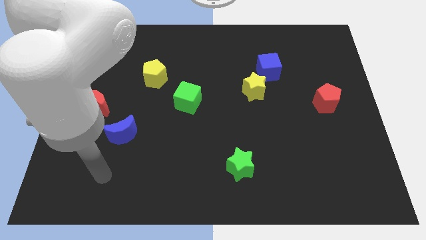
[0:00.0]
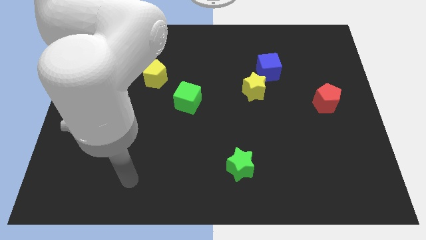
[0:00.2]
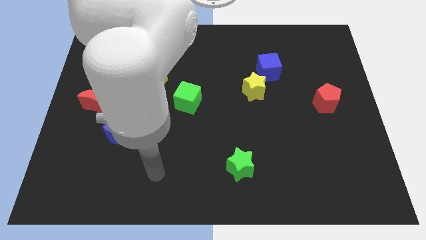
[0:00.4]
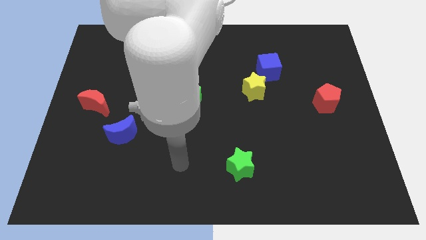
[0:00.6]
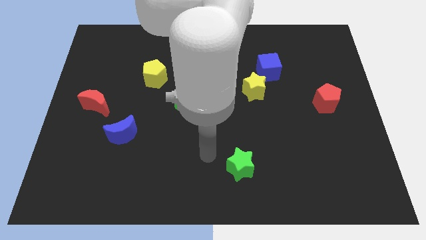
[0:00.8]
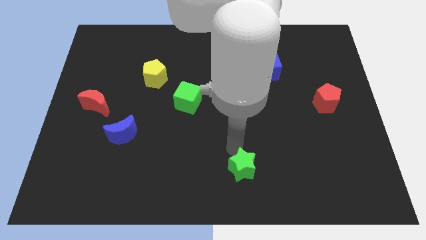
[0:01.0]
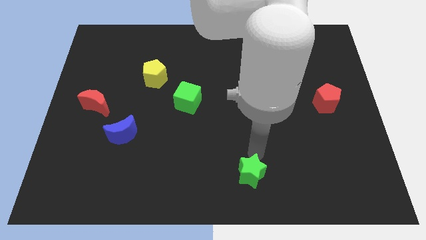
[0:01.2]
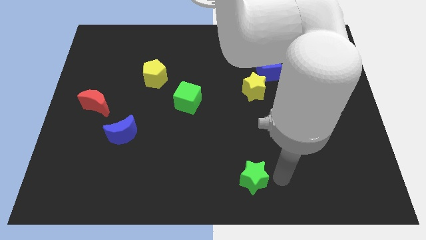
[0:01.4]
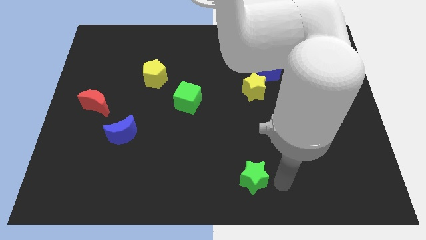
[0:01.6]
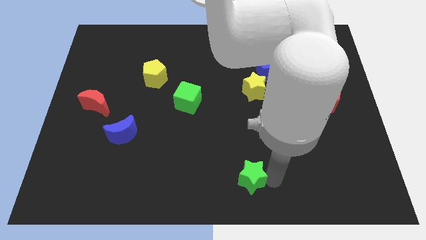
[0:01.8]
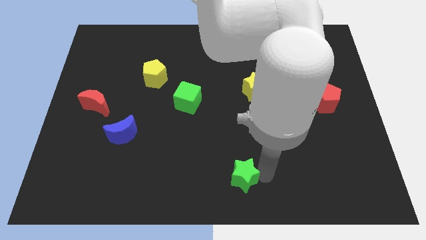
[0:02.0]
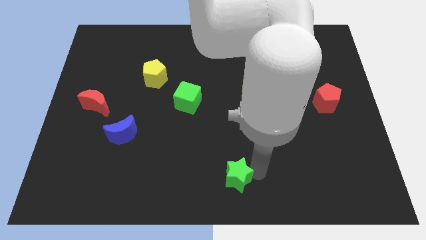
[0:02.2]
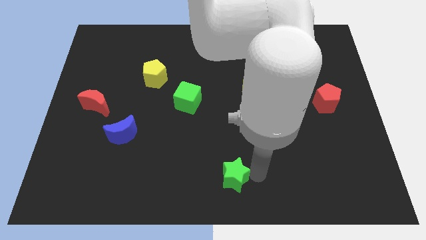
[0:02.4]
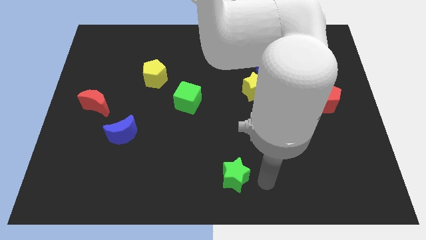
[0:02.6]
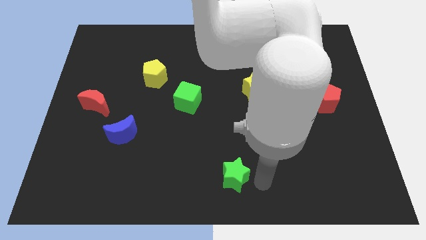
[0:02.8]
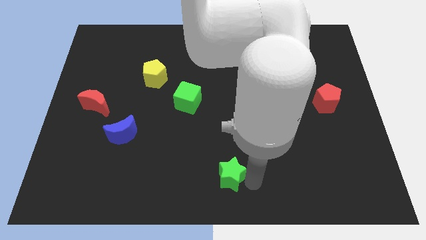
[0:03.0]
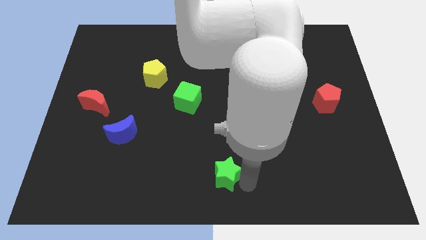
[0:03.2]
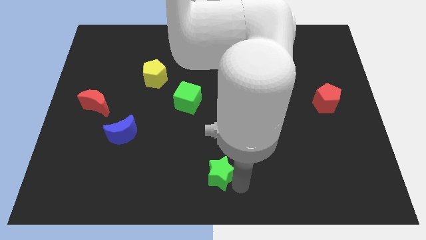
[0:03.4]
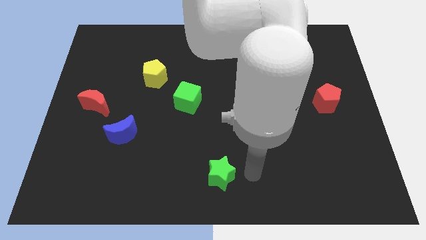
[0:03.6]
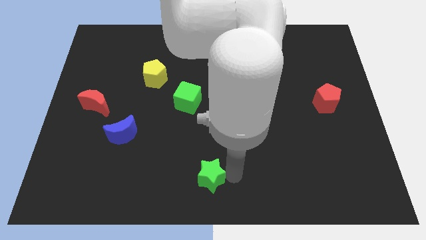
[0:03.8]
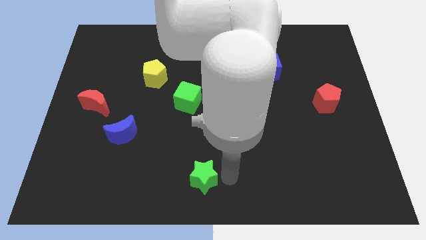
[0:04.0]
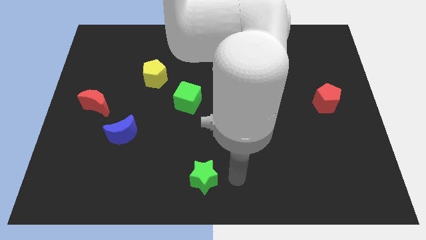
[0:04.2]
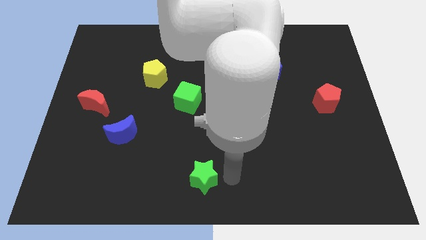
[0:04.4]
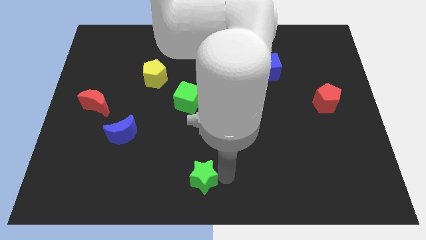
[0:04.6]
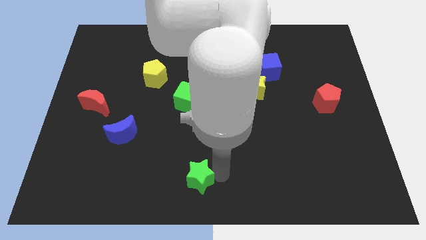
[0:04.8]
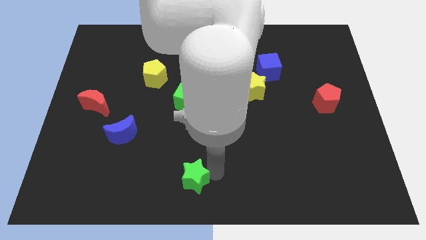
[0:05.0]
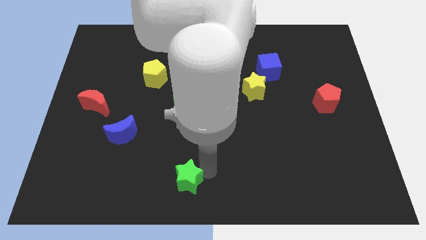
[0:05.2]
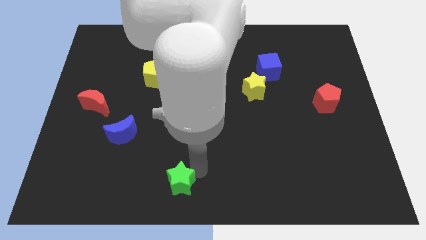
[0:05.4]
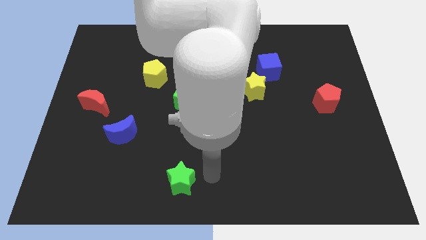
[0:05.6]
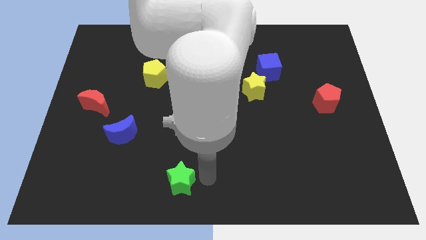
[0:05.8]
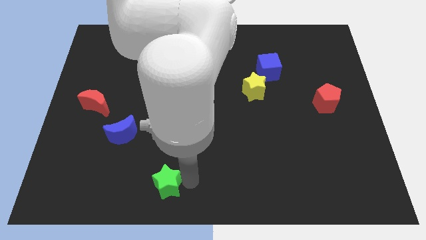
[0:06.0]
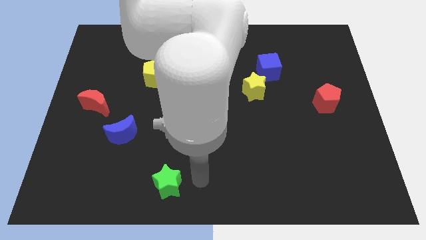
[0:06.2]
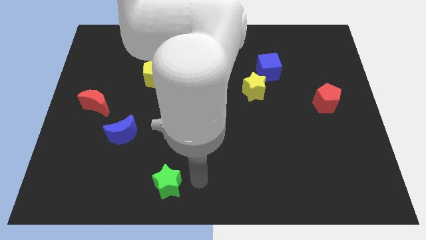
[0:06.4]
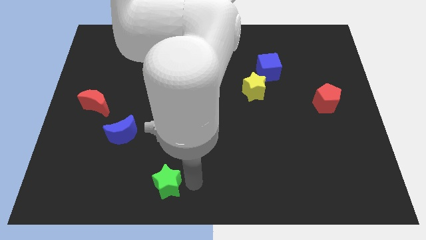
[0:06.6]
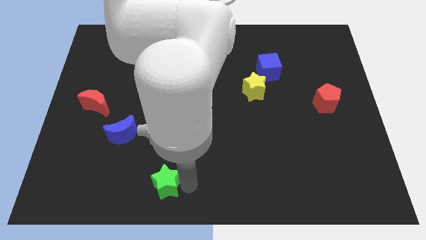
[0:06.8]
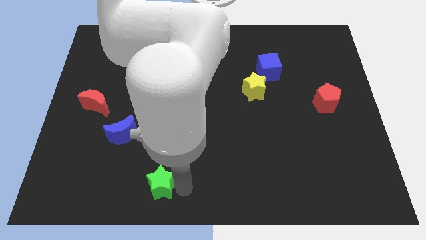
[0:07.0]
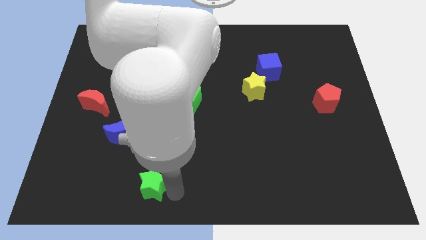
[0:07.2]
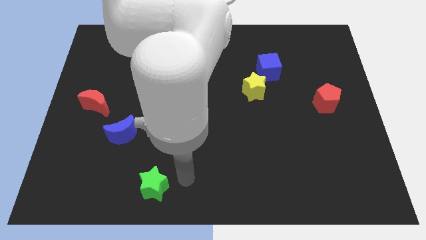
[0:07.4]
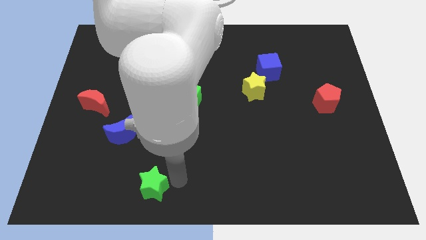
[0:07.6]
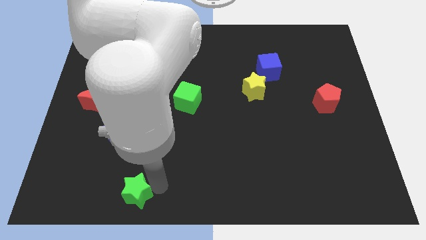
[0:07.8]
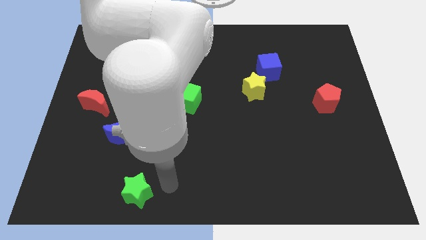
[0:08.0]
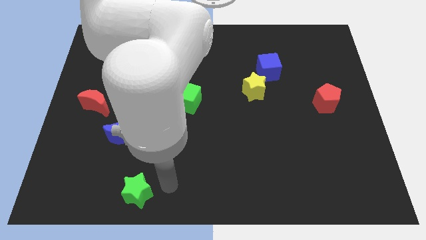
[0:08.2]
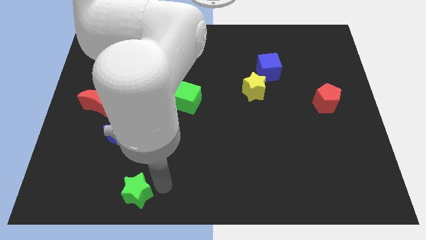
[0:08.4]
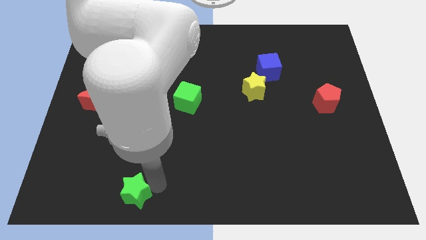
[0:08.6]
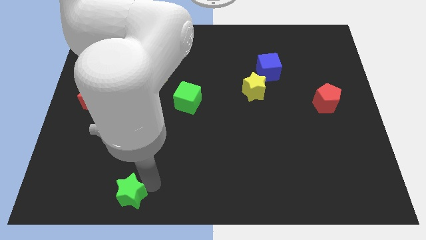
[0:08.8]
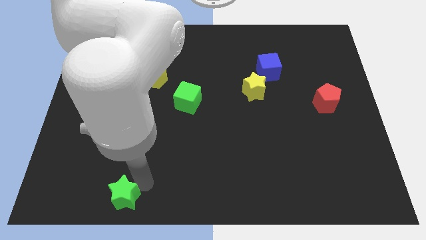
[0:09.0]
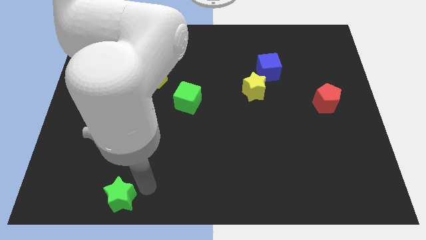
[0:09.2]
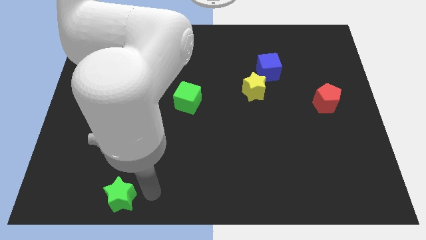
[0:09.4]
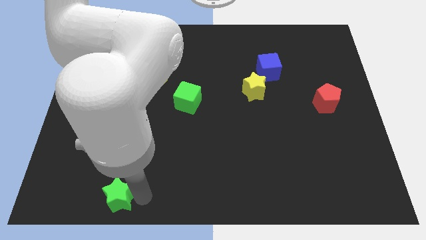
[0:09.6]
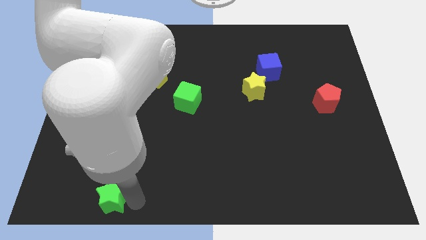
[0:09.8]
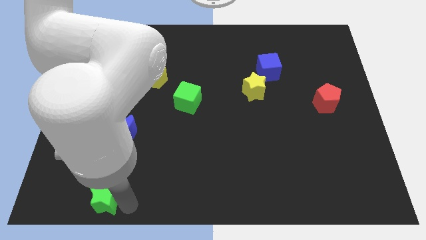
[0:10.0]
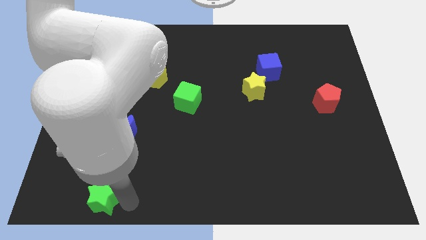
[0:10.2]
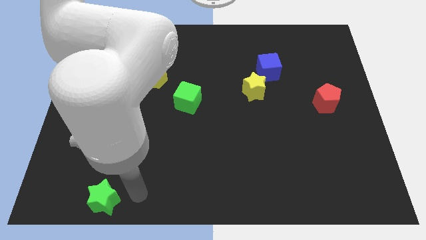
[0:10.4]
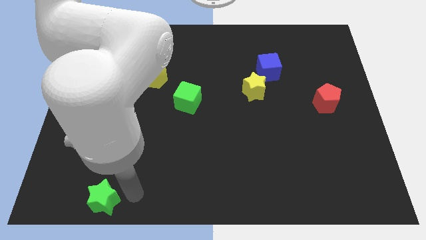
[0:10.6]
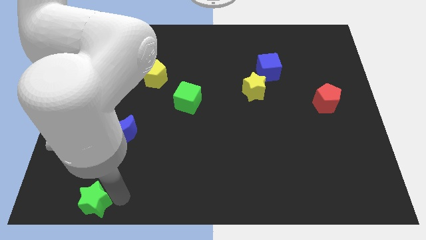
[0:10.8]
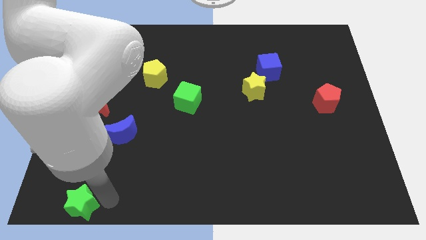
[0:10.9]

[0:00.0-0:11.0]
put the green star to the bottom left of the board

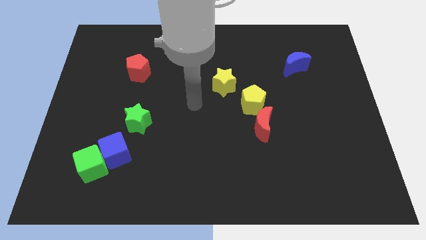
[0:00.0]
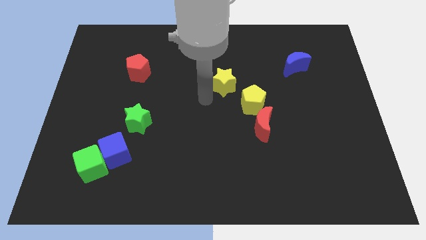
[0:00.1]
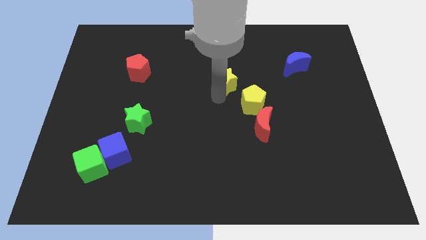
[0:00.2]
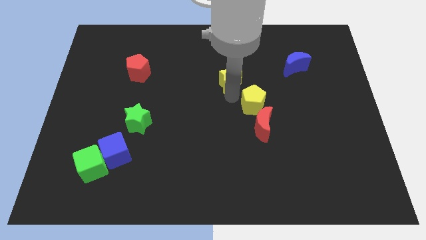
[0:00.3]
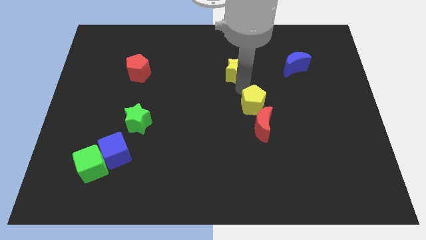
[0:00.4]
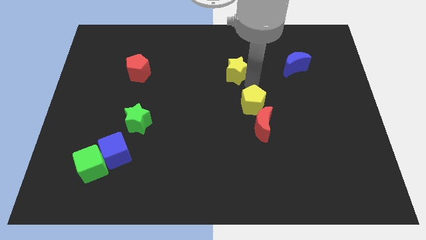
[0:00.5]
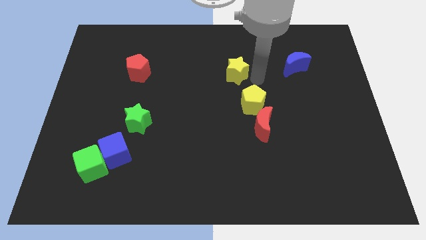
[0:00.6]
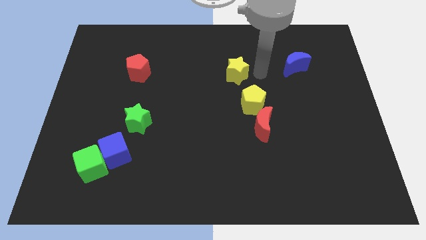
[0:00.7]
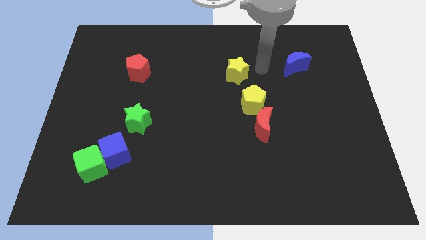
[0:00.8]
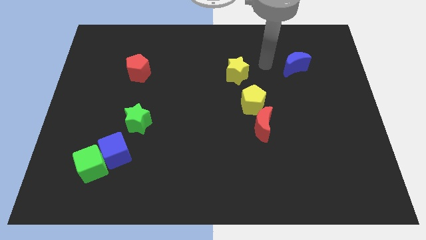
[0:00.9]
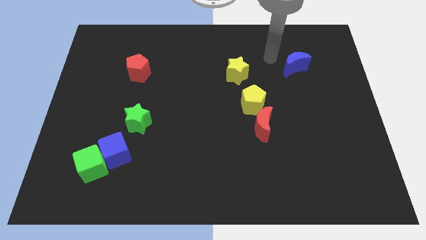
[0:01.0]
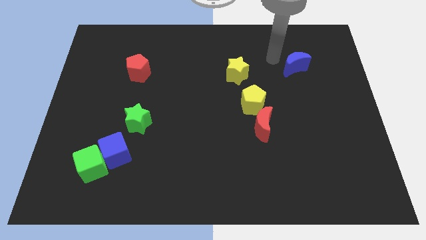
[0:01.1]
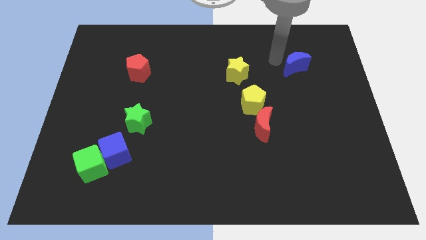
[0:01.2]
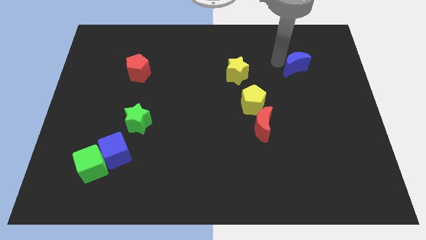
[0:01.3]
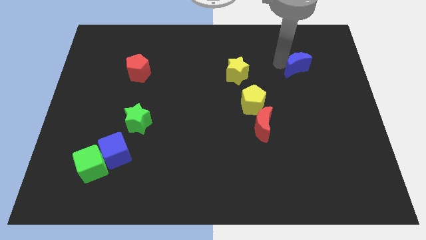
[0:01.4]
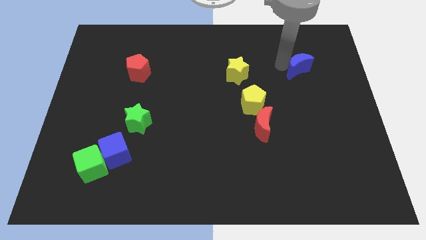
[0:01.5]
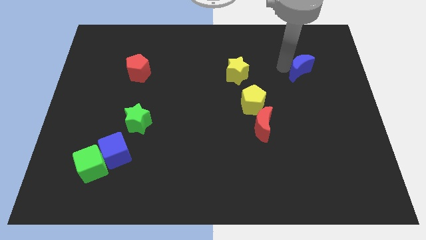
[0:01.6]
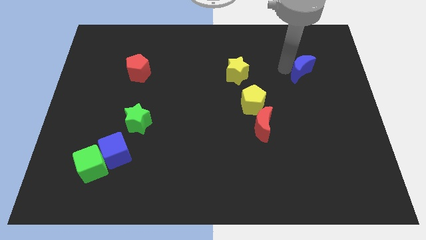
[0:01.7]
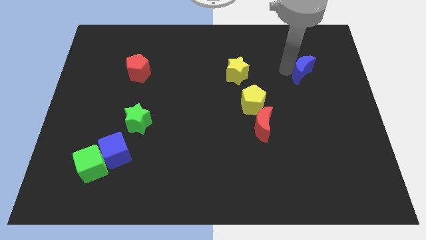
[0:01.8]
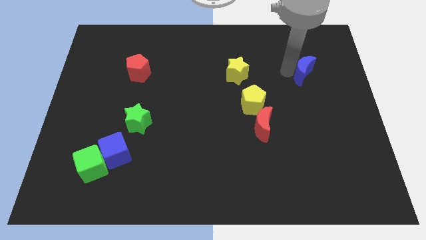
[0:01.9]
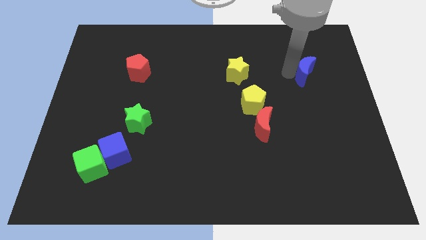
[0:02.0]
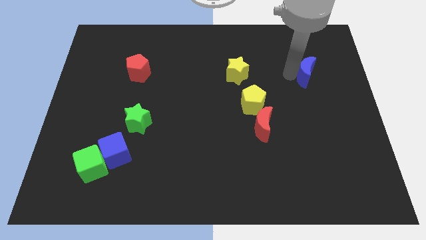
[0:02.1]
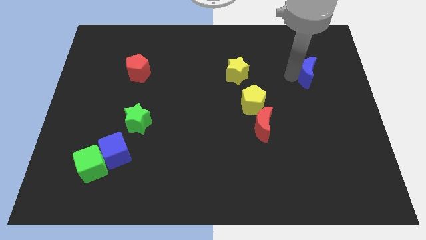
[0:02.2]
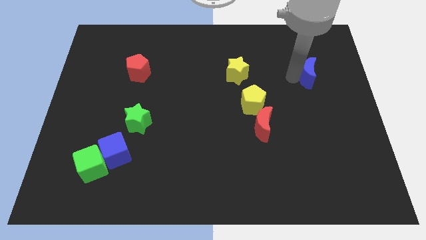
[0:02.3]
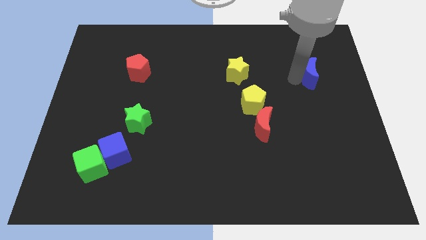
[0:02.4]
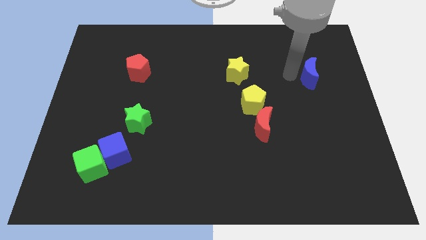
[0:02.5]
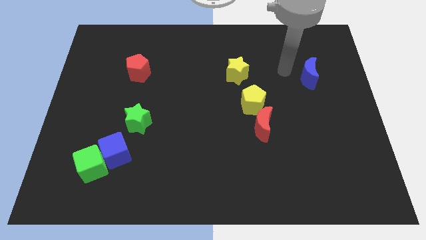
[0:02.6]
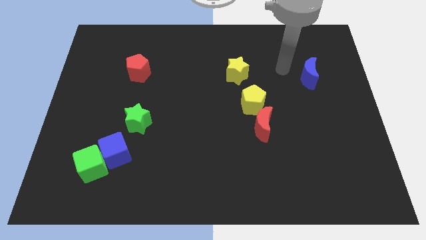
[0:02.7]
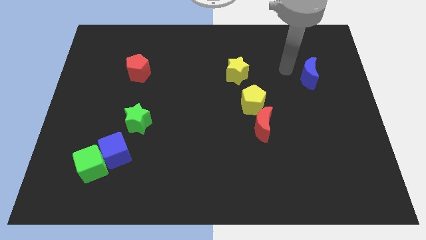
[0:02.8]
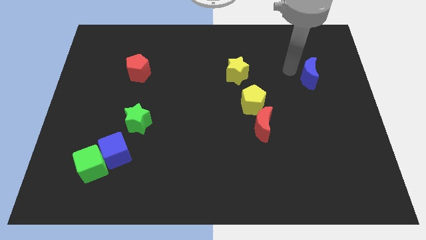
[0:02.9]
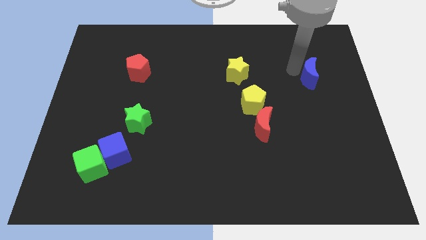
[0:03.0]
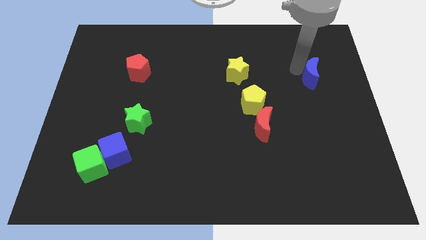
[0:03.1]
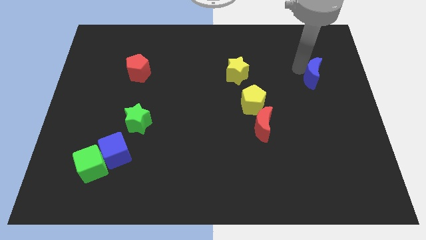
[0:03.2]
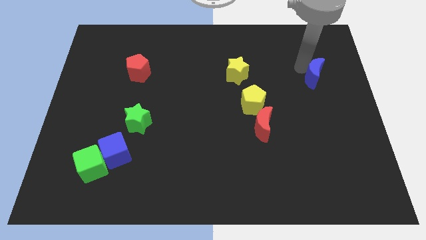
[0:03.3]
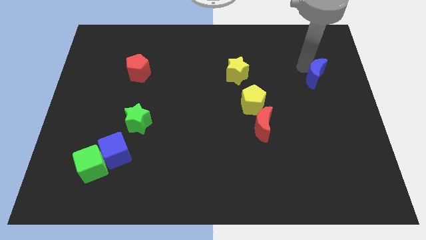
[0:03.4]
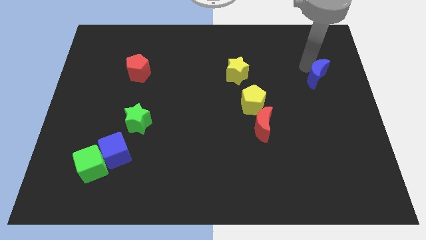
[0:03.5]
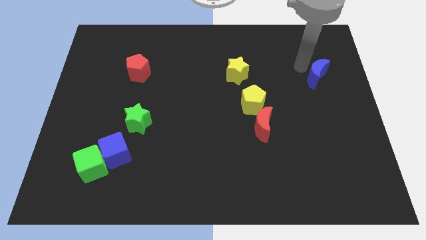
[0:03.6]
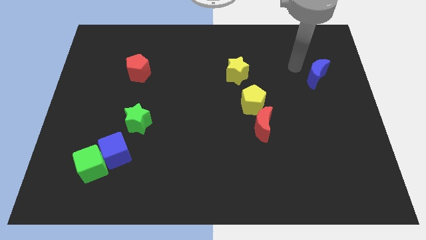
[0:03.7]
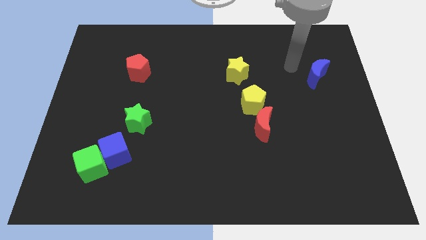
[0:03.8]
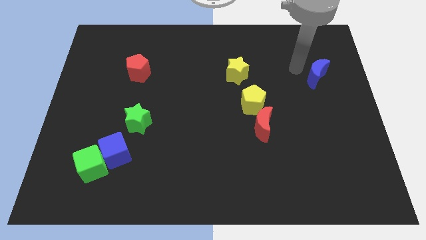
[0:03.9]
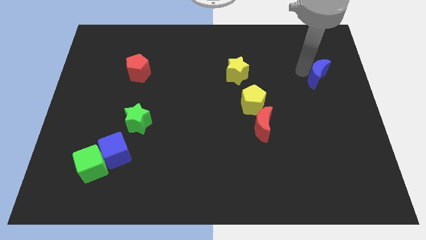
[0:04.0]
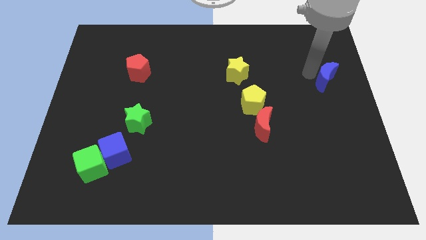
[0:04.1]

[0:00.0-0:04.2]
slide the blue moon to the right side
